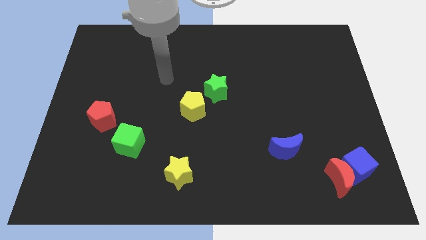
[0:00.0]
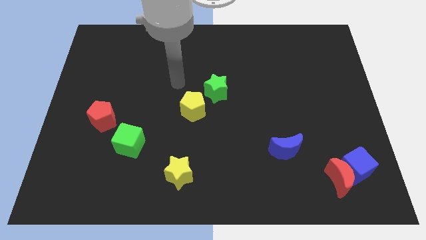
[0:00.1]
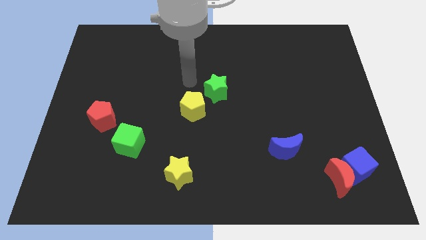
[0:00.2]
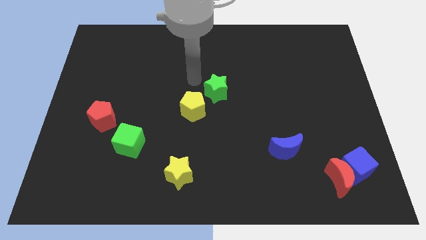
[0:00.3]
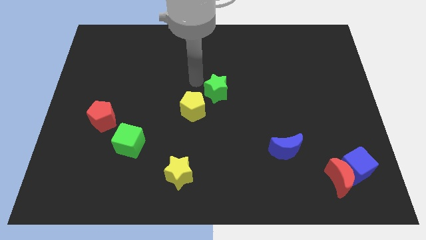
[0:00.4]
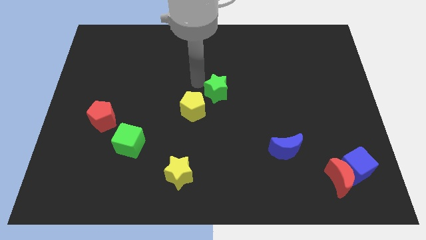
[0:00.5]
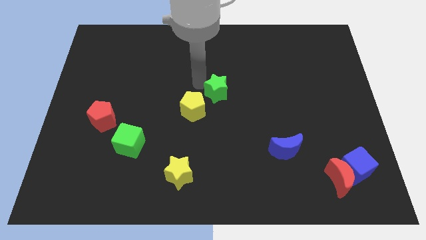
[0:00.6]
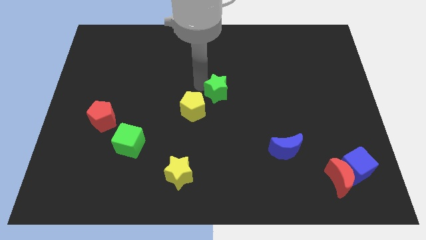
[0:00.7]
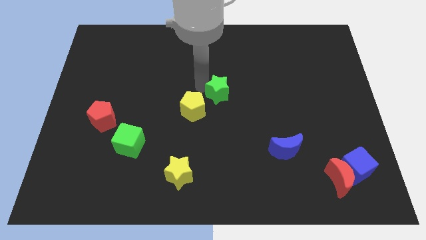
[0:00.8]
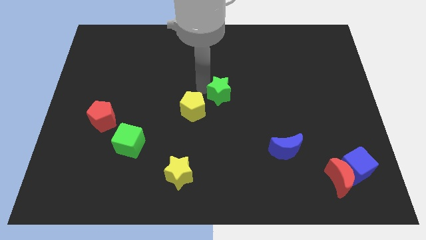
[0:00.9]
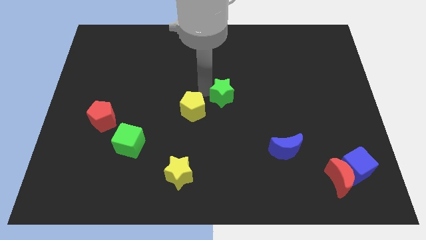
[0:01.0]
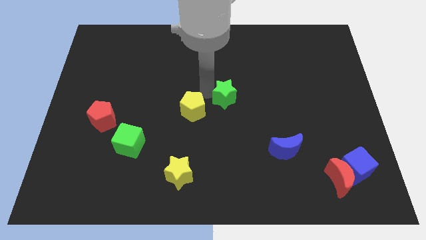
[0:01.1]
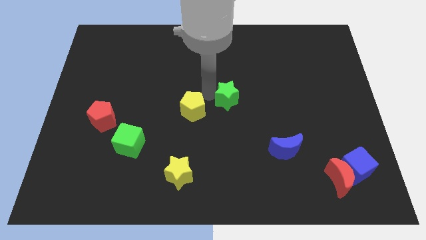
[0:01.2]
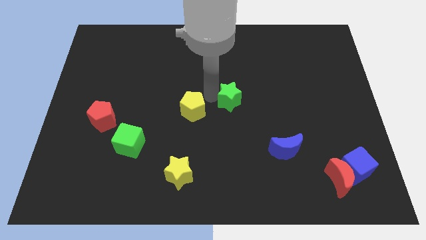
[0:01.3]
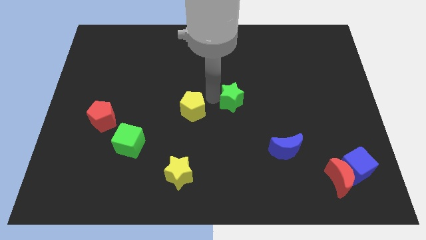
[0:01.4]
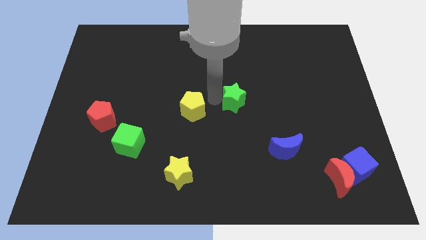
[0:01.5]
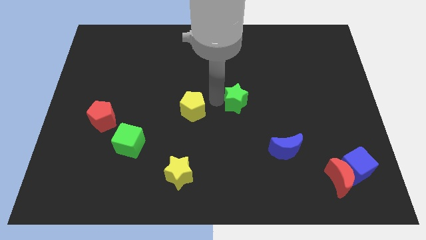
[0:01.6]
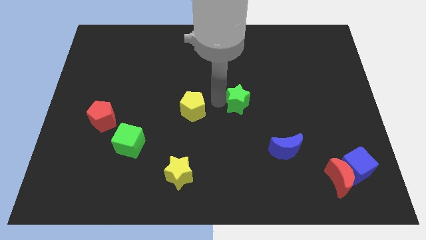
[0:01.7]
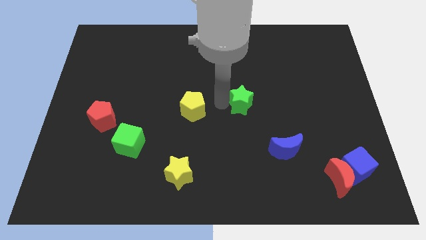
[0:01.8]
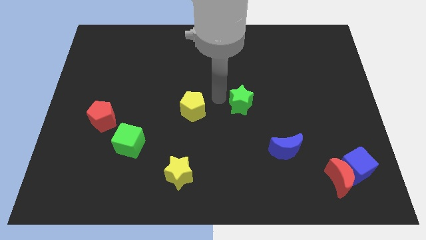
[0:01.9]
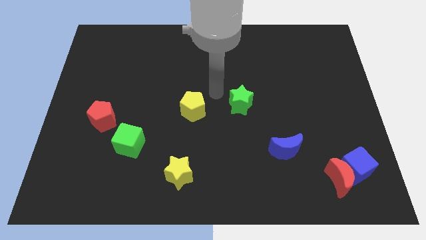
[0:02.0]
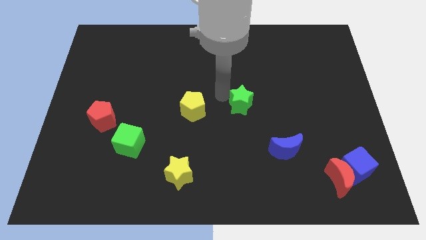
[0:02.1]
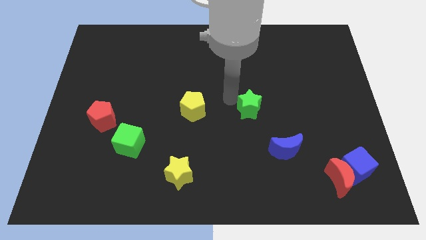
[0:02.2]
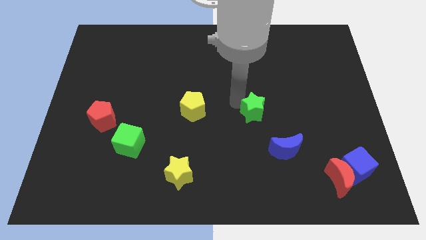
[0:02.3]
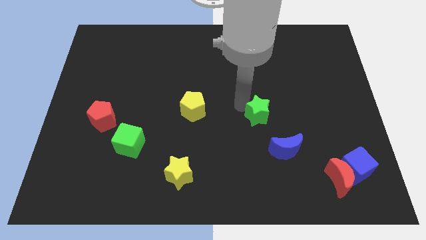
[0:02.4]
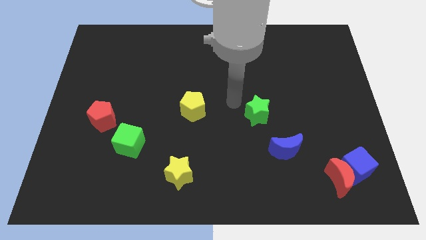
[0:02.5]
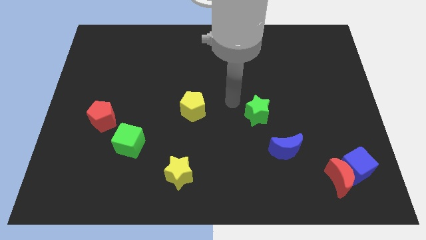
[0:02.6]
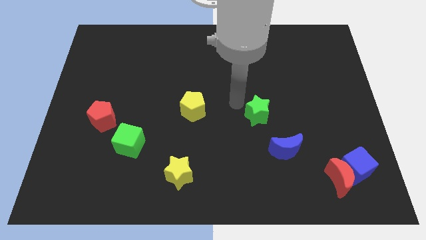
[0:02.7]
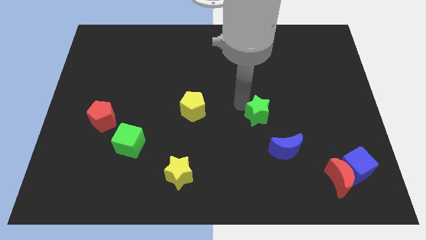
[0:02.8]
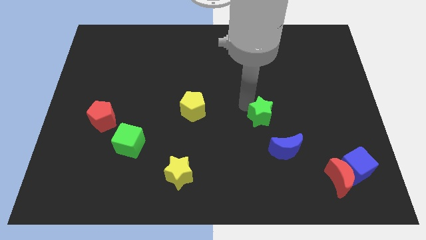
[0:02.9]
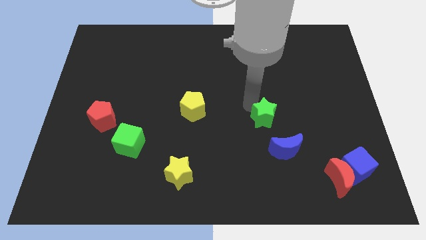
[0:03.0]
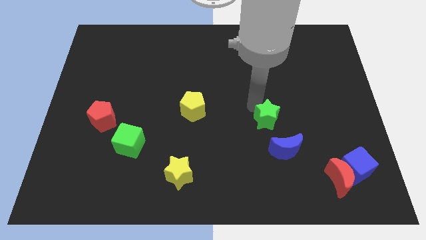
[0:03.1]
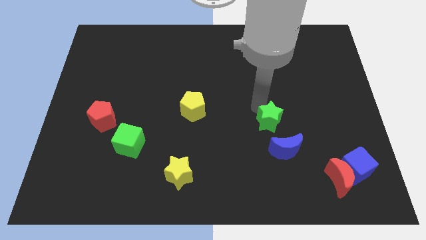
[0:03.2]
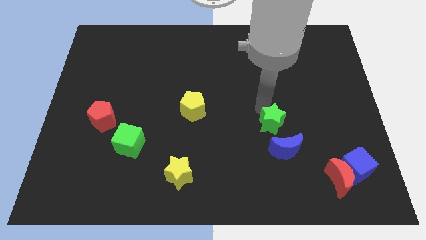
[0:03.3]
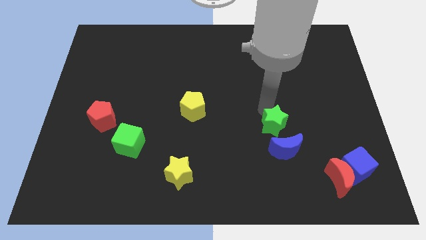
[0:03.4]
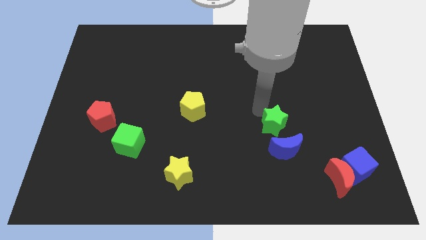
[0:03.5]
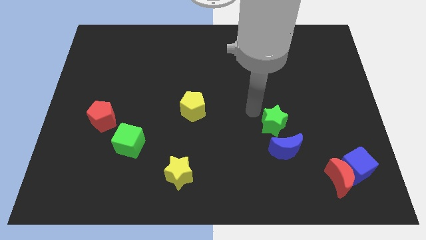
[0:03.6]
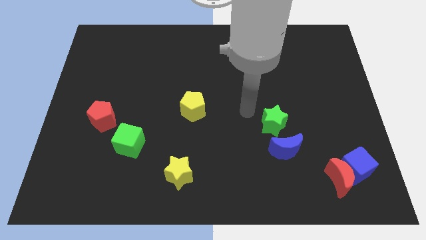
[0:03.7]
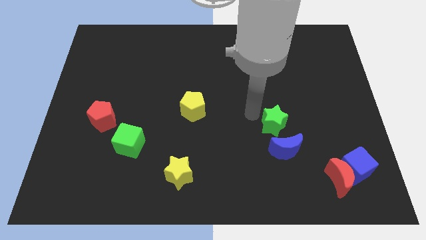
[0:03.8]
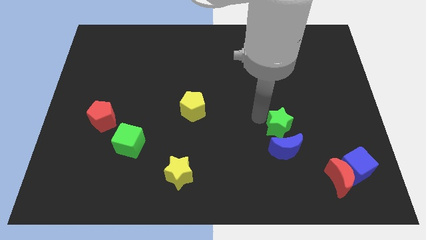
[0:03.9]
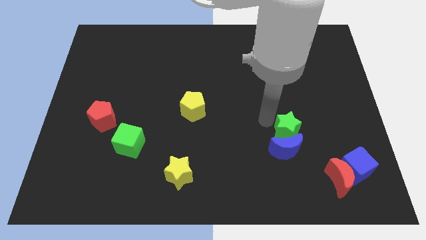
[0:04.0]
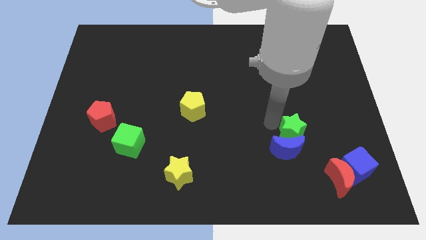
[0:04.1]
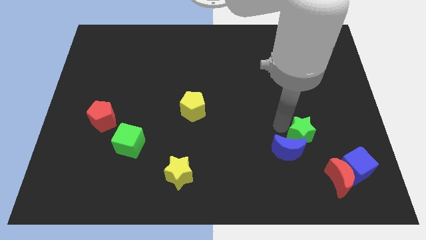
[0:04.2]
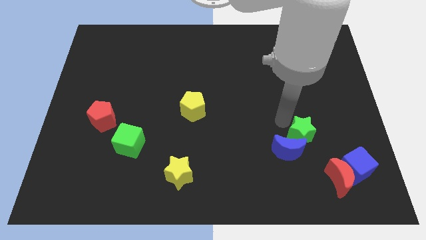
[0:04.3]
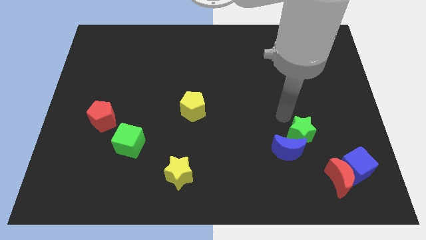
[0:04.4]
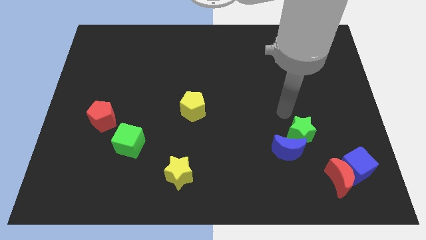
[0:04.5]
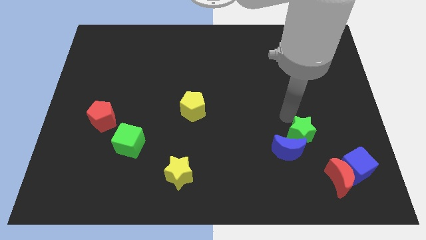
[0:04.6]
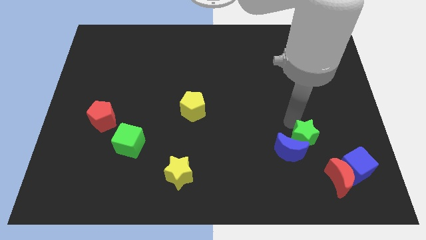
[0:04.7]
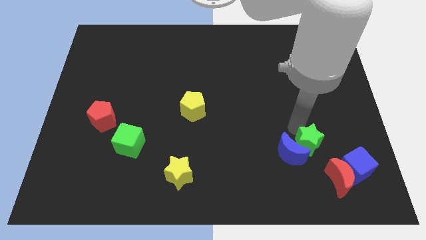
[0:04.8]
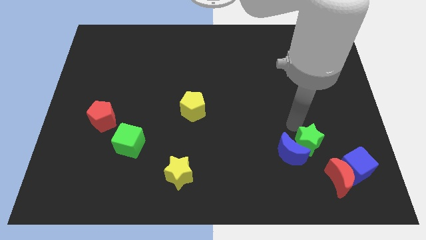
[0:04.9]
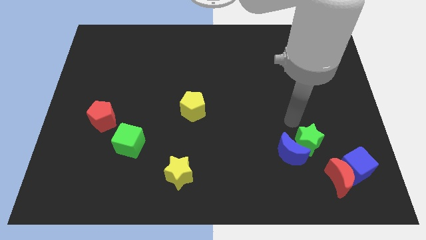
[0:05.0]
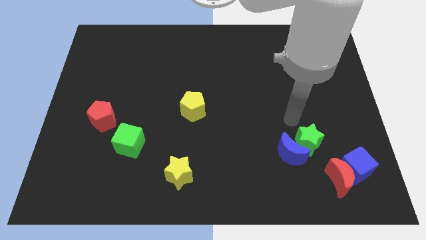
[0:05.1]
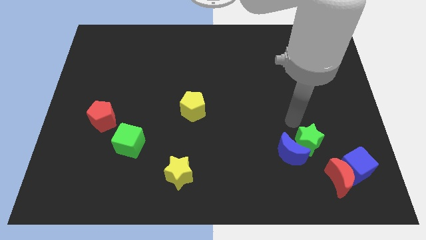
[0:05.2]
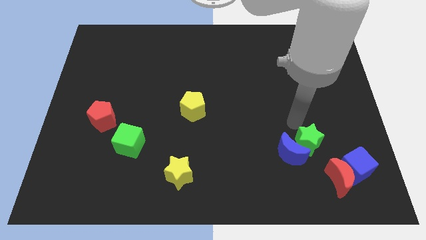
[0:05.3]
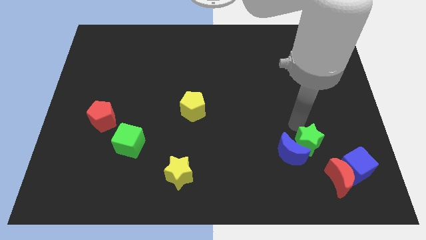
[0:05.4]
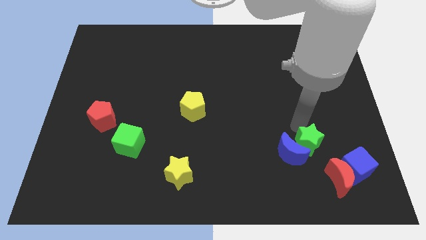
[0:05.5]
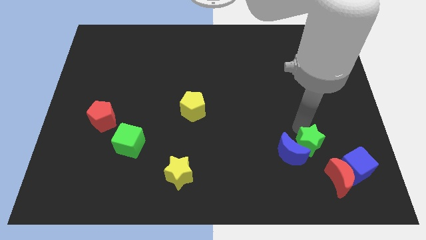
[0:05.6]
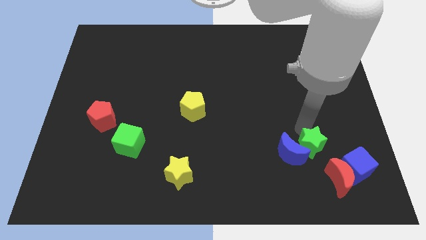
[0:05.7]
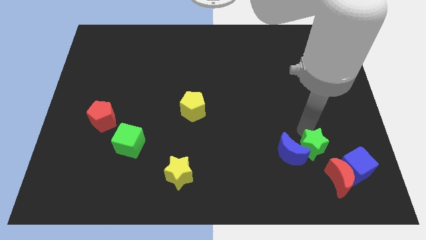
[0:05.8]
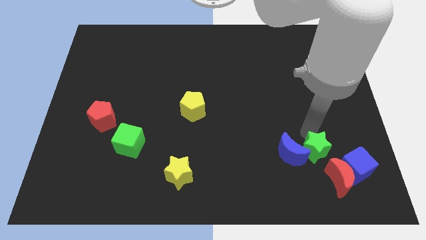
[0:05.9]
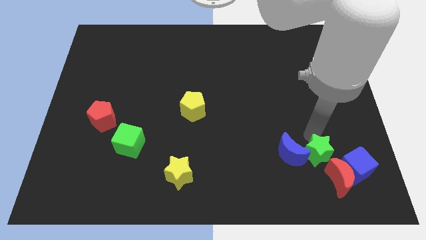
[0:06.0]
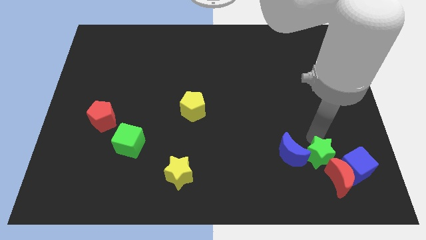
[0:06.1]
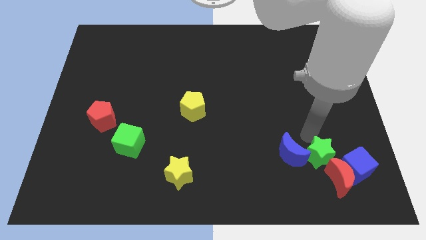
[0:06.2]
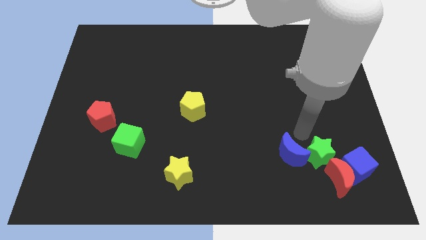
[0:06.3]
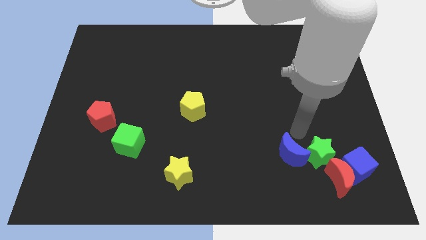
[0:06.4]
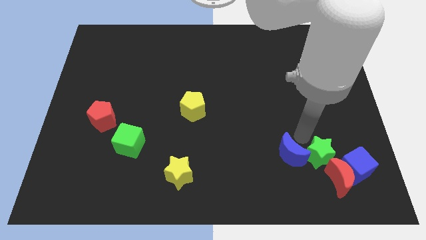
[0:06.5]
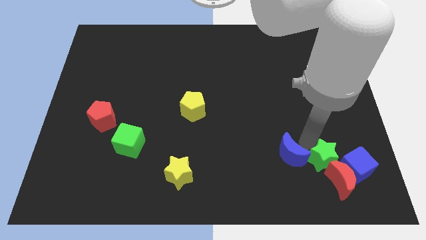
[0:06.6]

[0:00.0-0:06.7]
slide the green star to the red moon

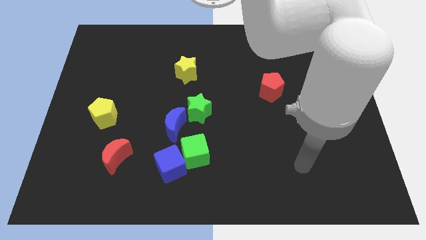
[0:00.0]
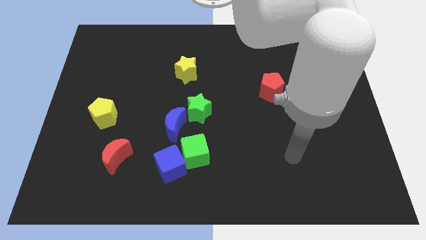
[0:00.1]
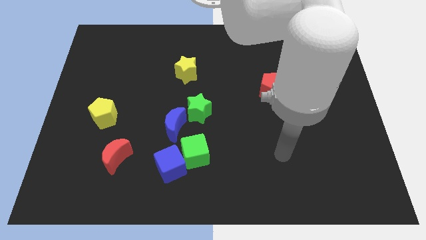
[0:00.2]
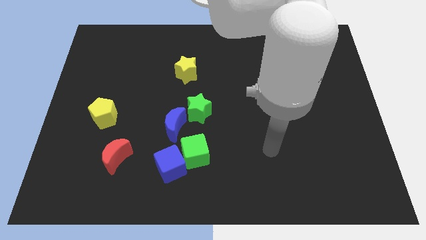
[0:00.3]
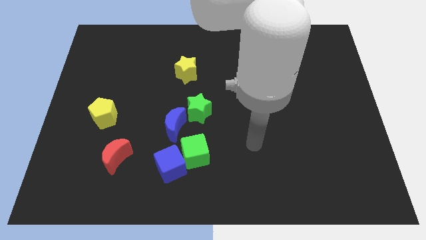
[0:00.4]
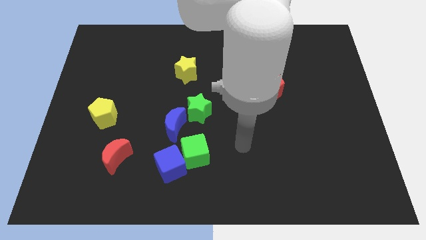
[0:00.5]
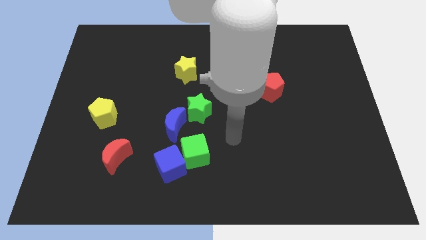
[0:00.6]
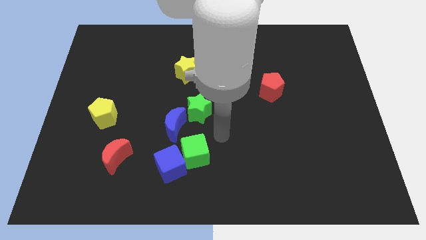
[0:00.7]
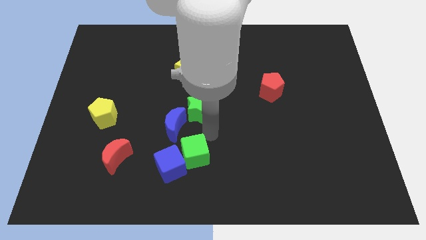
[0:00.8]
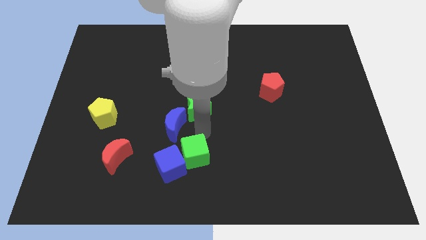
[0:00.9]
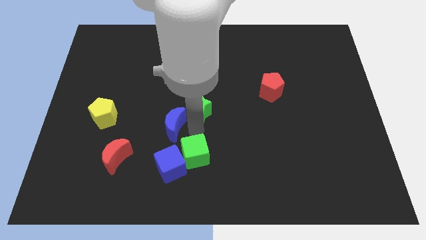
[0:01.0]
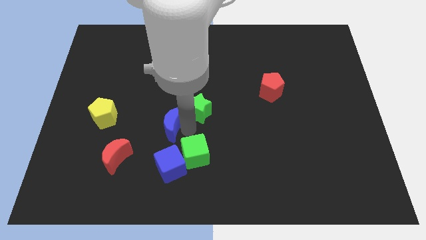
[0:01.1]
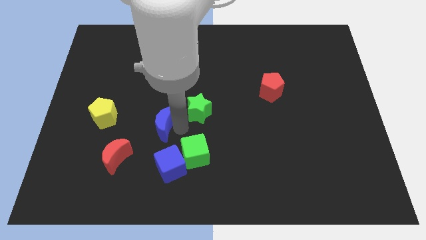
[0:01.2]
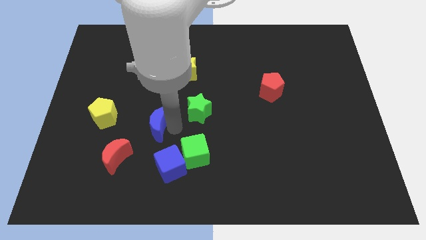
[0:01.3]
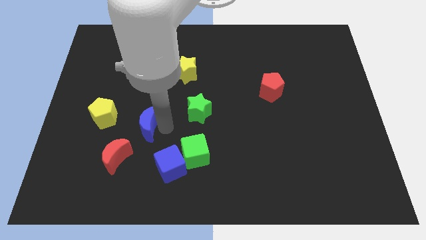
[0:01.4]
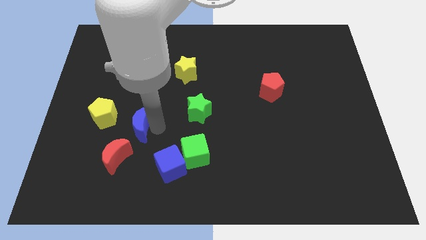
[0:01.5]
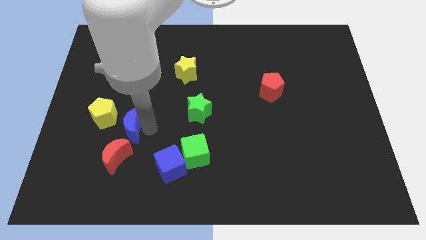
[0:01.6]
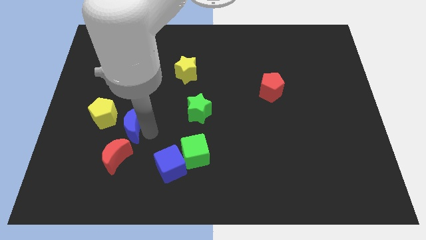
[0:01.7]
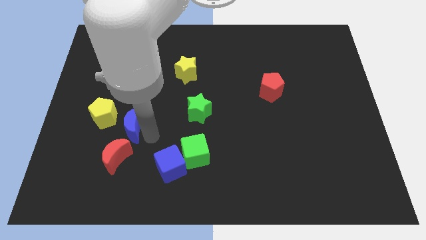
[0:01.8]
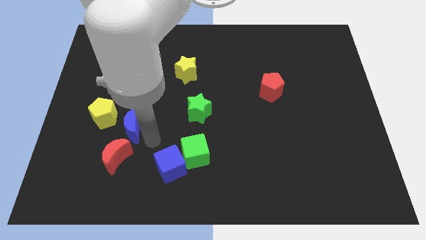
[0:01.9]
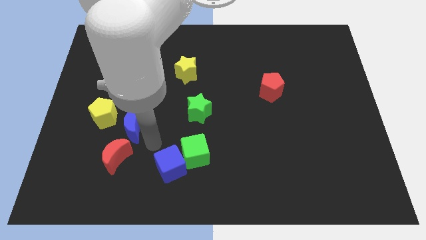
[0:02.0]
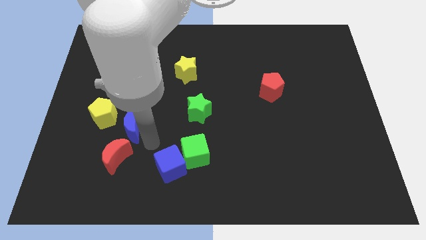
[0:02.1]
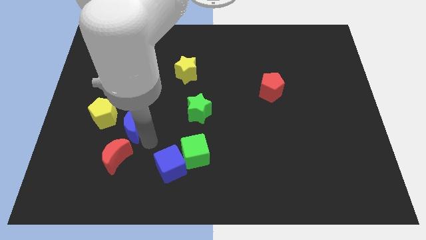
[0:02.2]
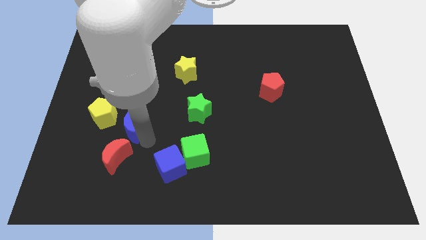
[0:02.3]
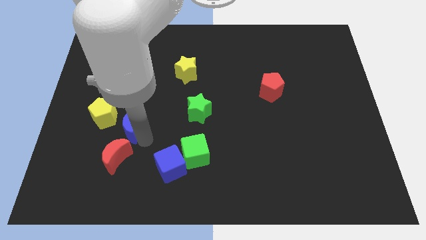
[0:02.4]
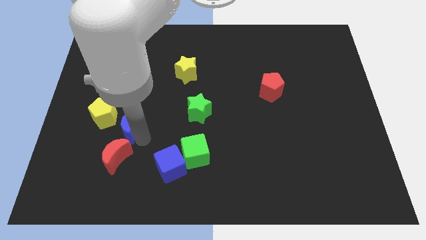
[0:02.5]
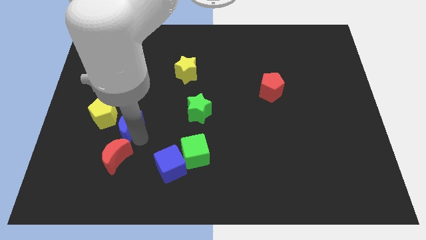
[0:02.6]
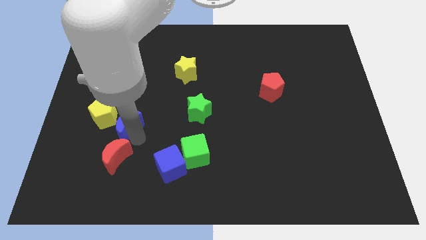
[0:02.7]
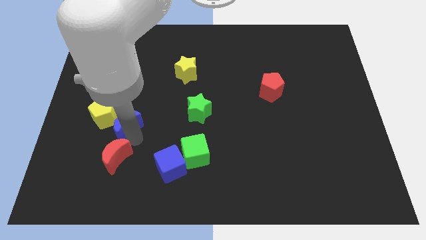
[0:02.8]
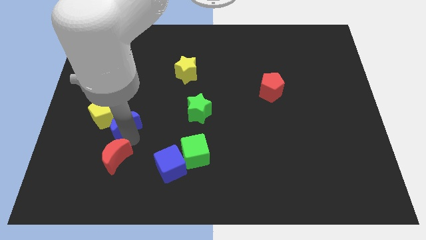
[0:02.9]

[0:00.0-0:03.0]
push the blue moon close to the yellow pentagon
